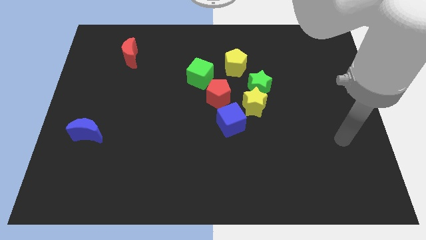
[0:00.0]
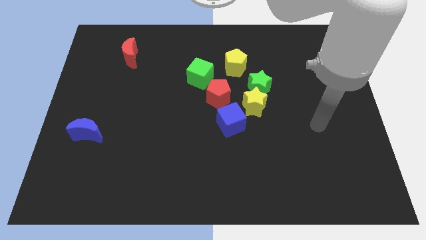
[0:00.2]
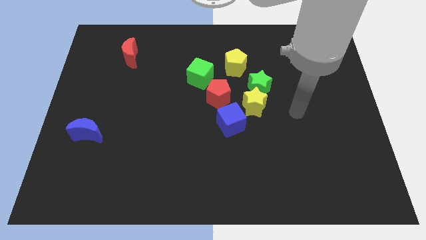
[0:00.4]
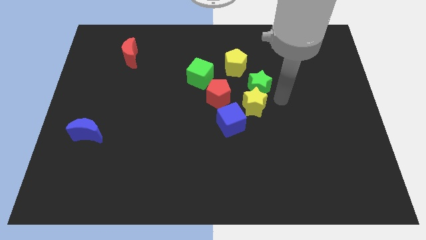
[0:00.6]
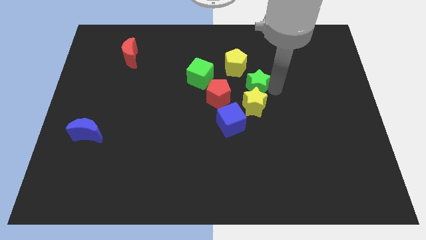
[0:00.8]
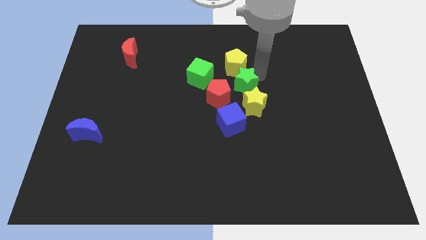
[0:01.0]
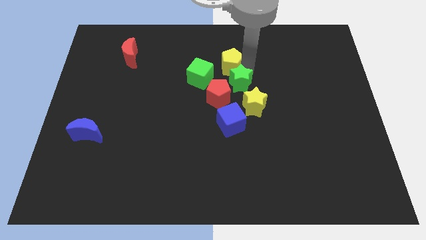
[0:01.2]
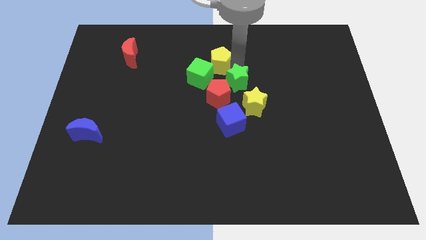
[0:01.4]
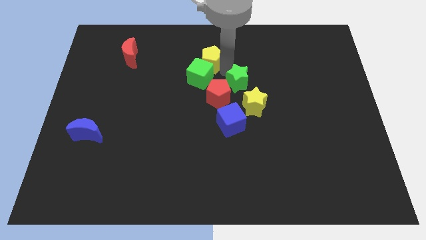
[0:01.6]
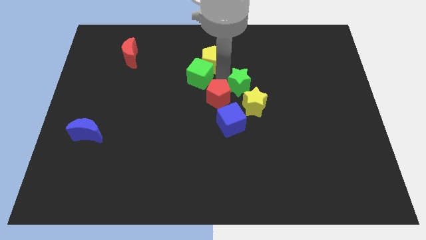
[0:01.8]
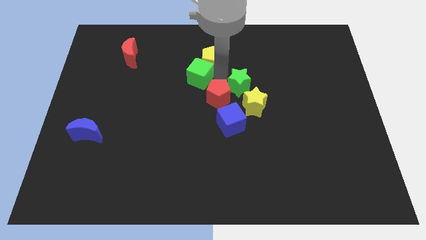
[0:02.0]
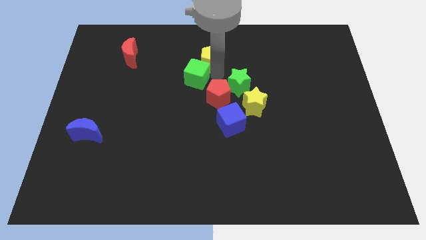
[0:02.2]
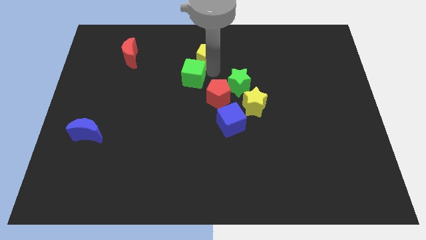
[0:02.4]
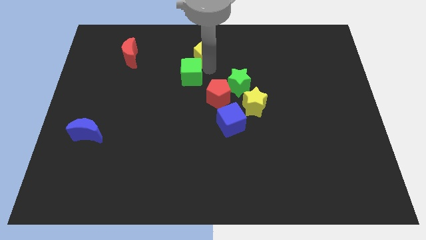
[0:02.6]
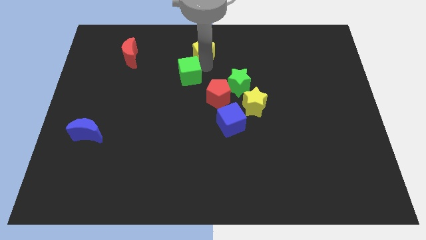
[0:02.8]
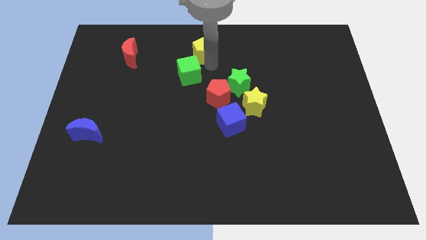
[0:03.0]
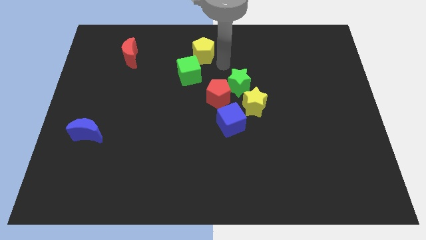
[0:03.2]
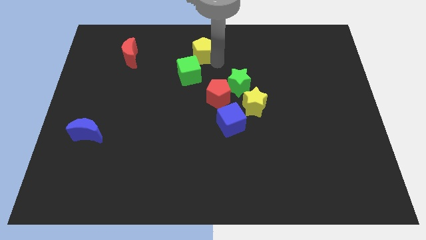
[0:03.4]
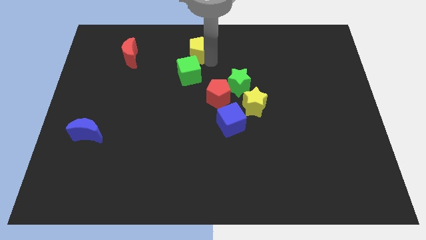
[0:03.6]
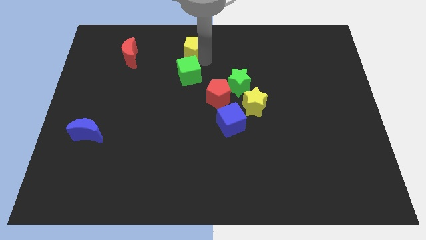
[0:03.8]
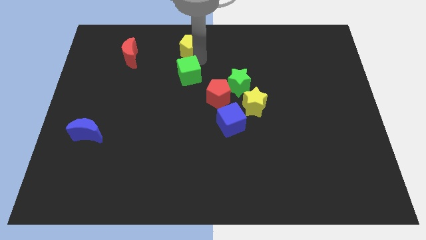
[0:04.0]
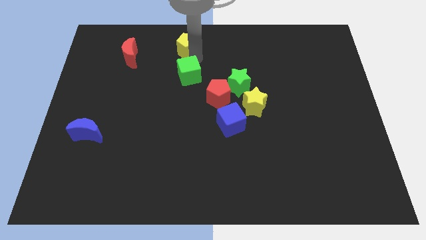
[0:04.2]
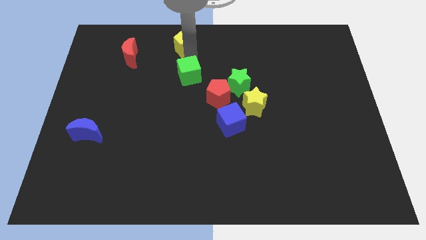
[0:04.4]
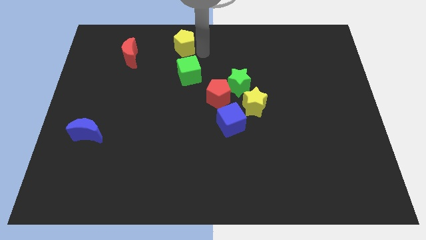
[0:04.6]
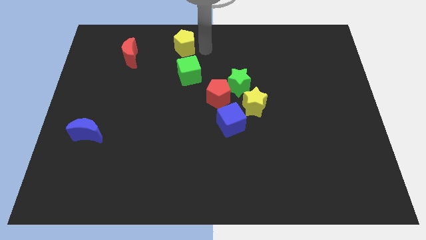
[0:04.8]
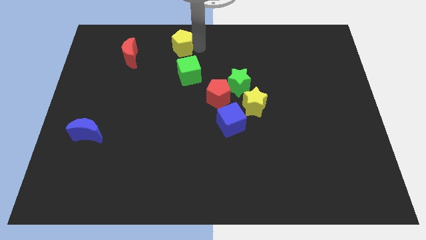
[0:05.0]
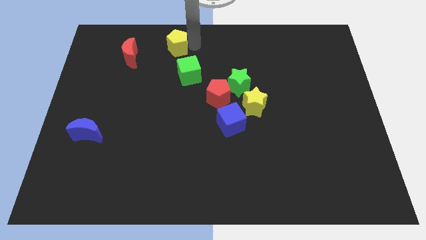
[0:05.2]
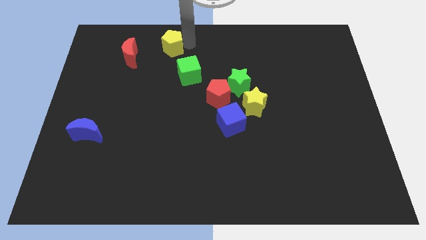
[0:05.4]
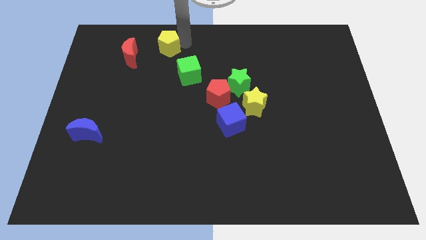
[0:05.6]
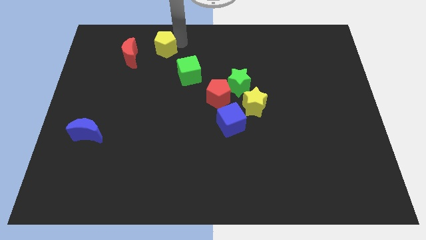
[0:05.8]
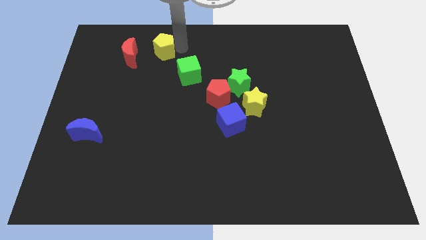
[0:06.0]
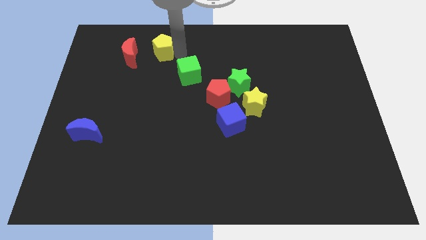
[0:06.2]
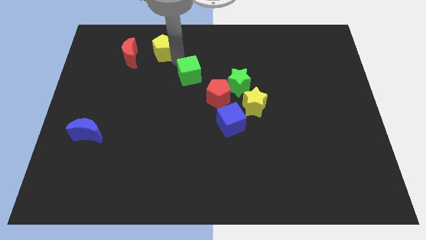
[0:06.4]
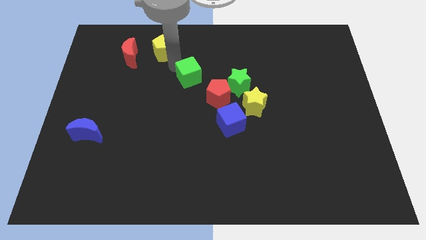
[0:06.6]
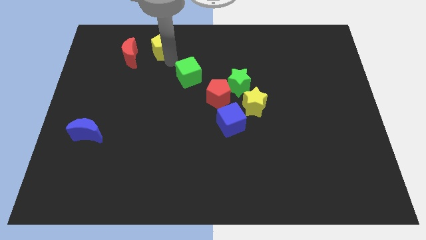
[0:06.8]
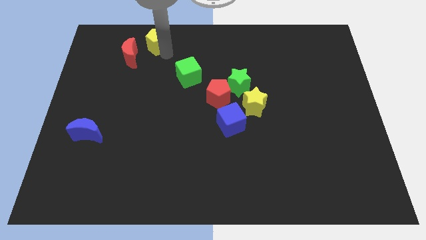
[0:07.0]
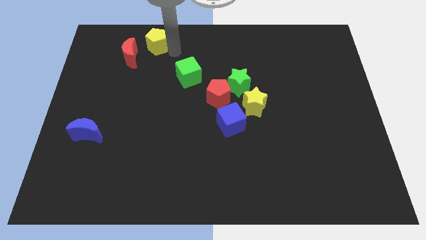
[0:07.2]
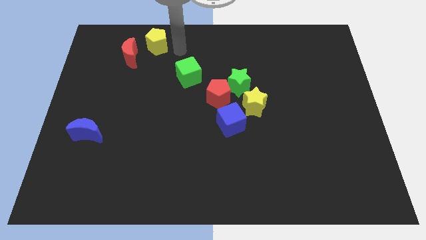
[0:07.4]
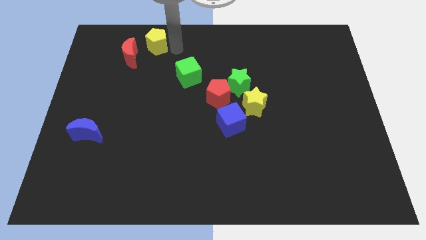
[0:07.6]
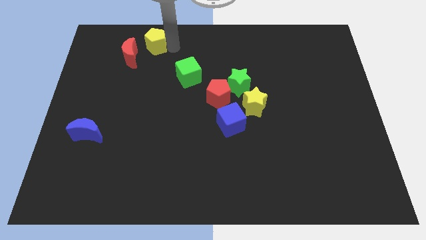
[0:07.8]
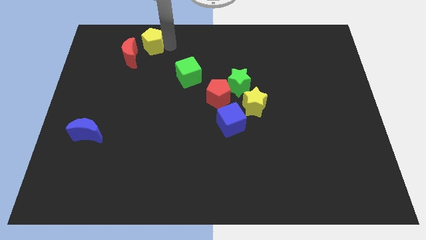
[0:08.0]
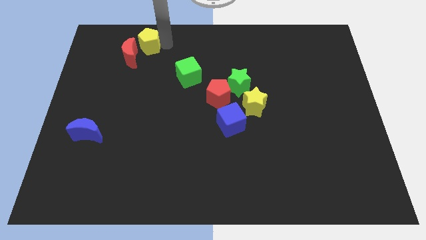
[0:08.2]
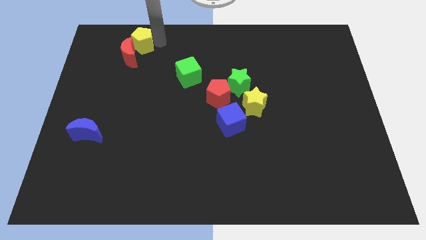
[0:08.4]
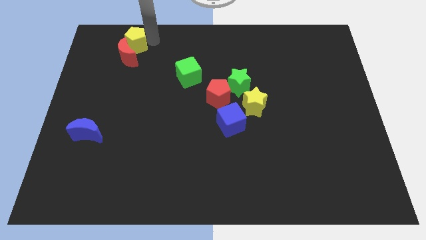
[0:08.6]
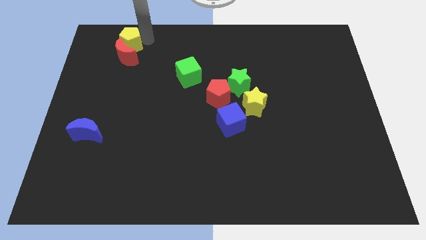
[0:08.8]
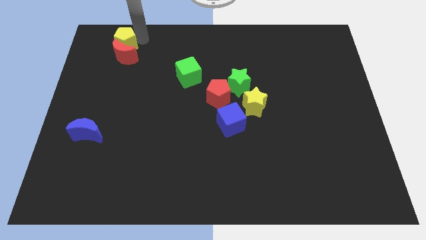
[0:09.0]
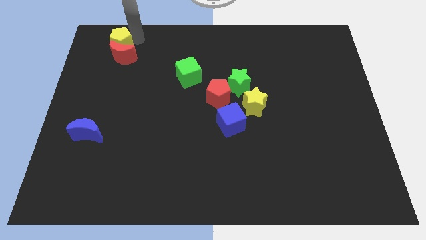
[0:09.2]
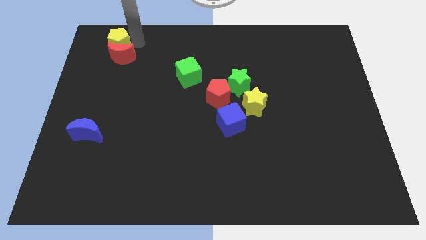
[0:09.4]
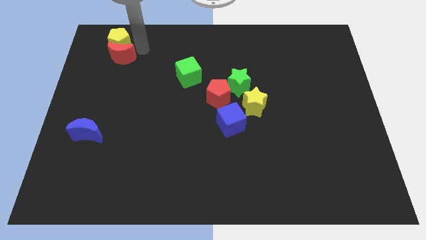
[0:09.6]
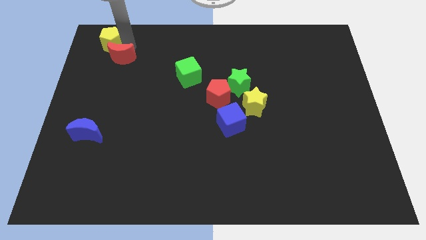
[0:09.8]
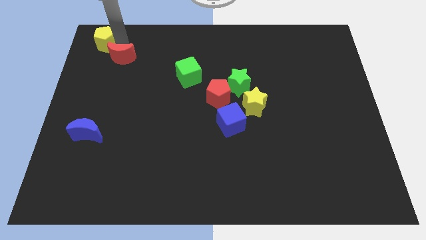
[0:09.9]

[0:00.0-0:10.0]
put the yellow pentagon to the top left

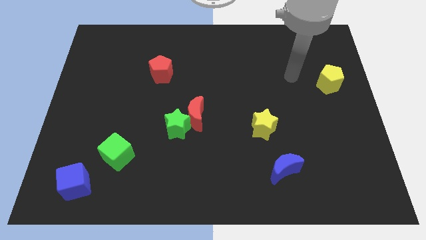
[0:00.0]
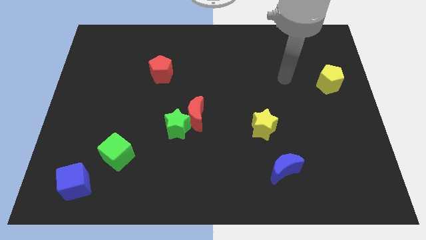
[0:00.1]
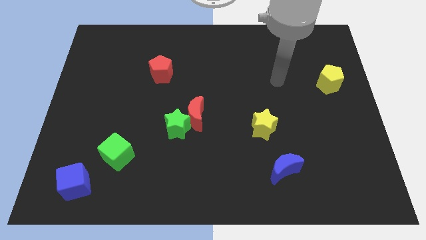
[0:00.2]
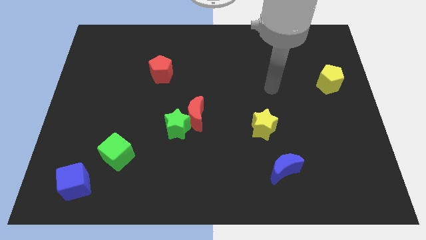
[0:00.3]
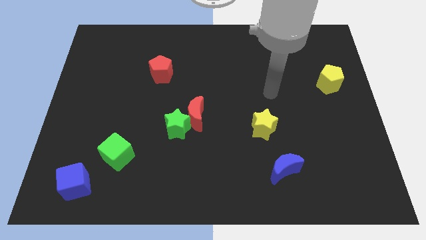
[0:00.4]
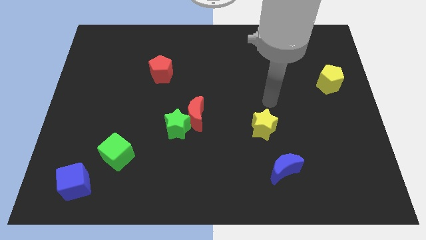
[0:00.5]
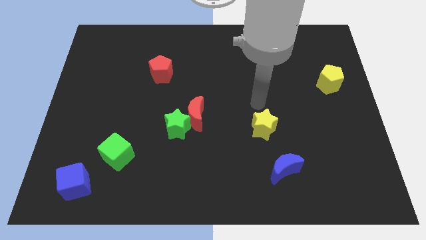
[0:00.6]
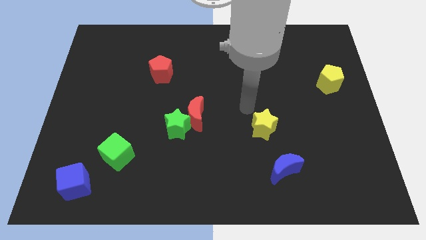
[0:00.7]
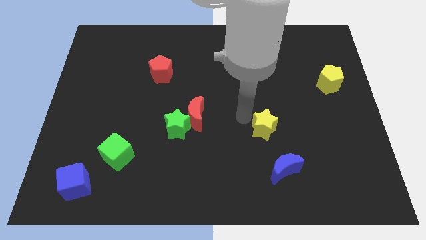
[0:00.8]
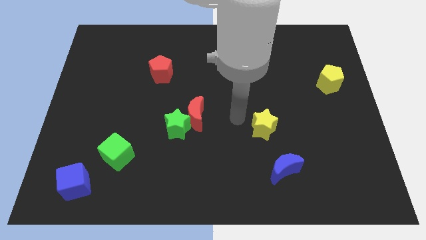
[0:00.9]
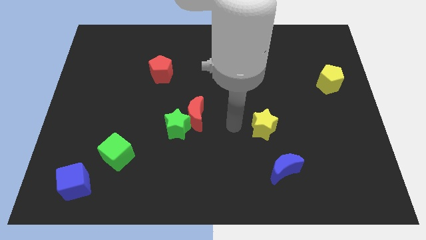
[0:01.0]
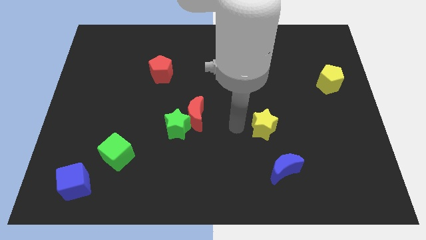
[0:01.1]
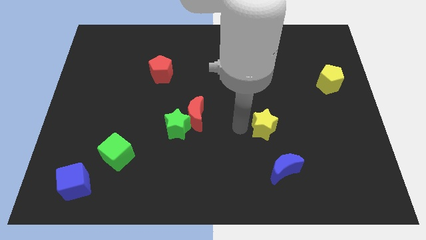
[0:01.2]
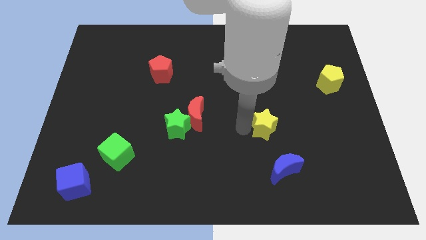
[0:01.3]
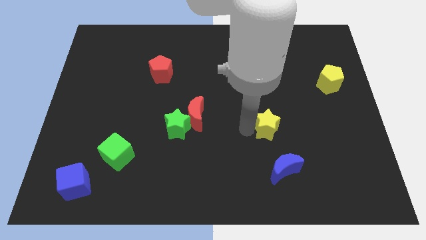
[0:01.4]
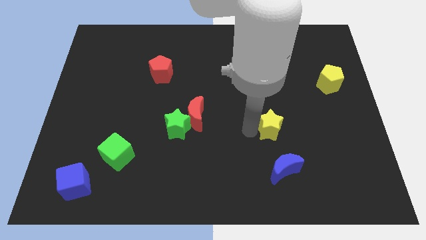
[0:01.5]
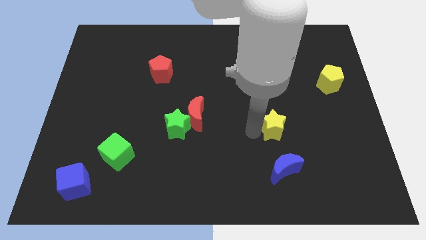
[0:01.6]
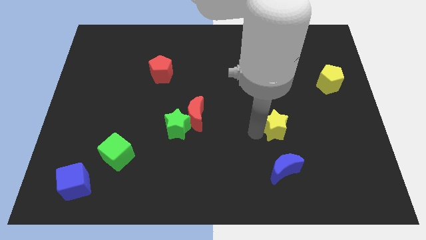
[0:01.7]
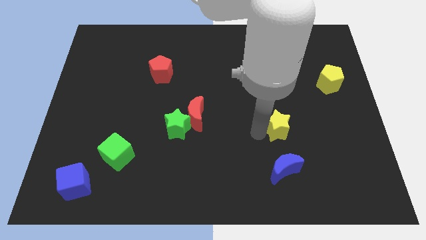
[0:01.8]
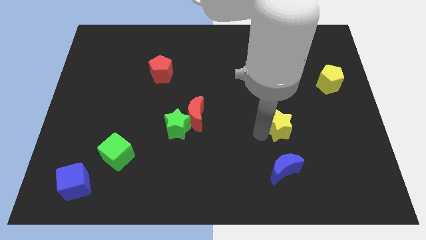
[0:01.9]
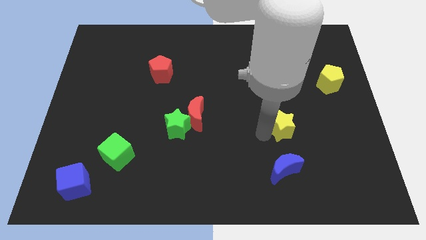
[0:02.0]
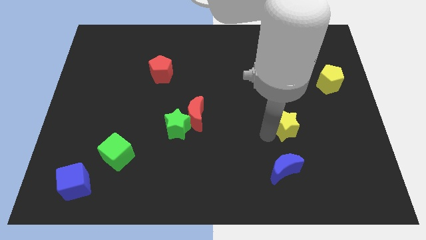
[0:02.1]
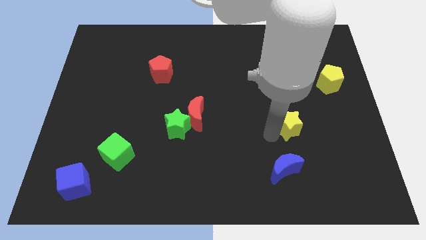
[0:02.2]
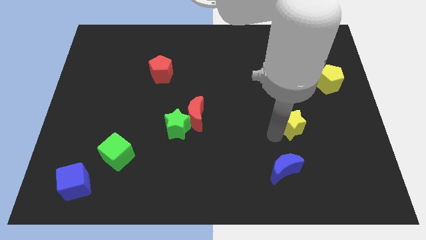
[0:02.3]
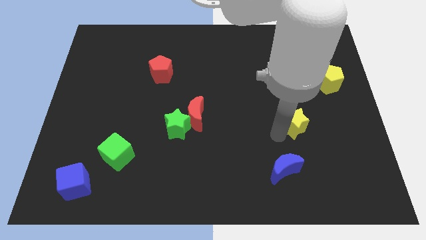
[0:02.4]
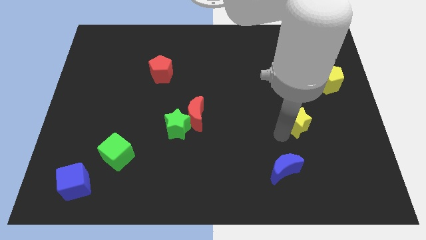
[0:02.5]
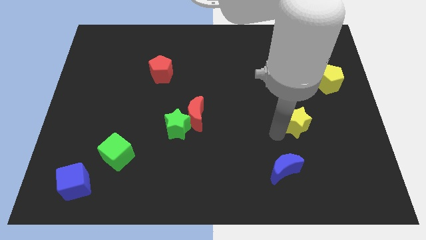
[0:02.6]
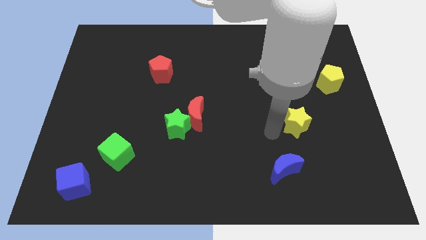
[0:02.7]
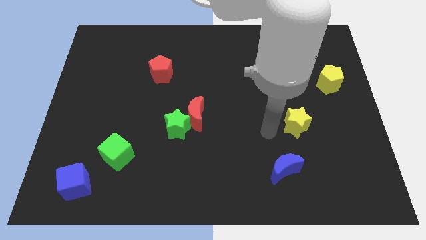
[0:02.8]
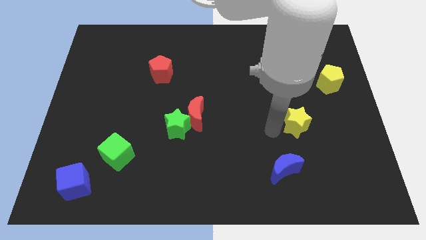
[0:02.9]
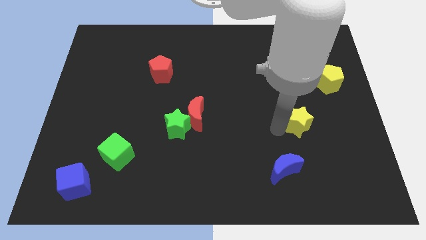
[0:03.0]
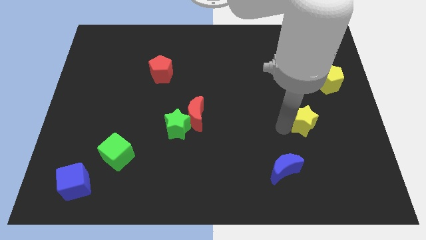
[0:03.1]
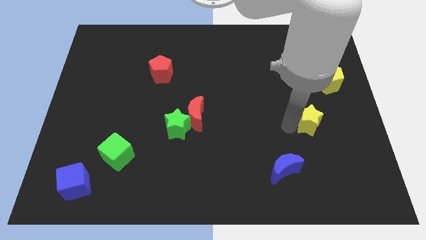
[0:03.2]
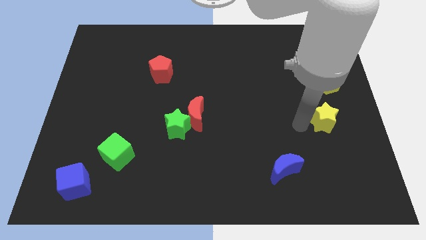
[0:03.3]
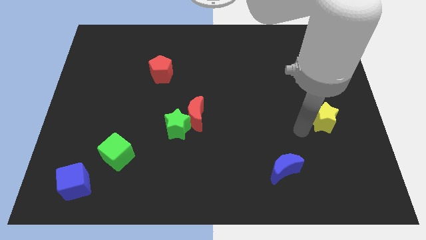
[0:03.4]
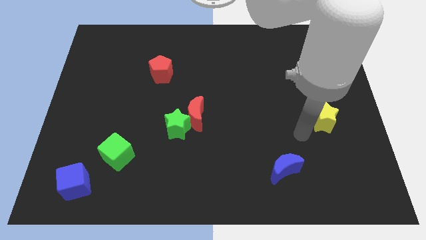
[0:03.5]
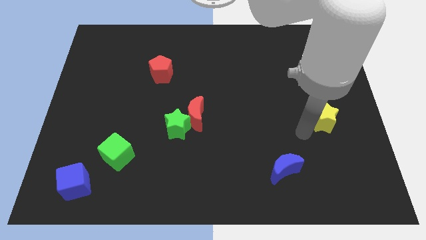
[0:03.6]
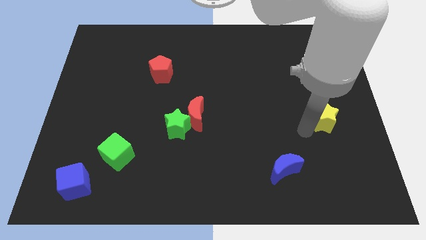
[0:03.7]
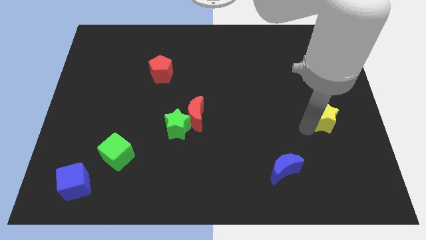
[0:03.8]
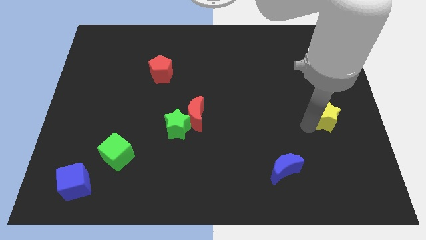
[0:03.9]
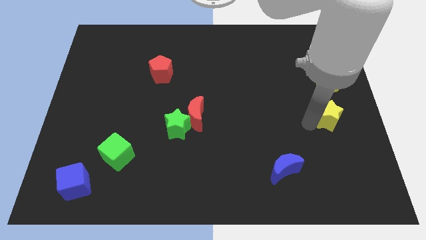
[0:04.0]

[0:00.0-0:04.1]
push the yellow star to the center right
